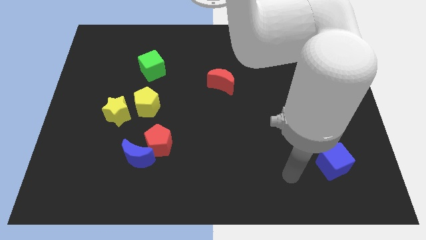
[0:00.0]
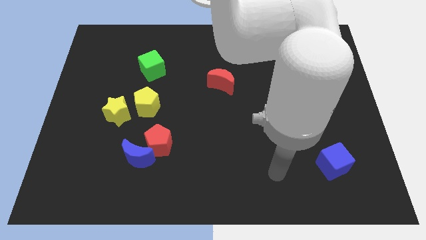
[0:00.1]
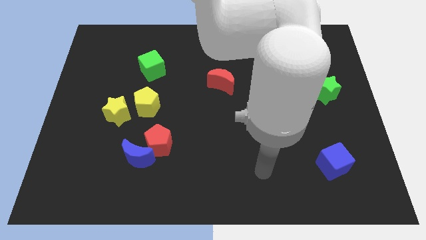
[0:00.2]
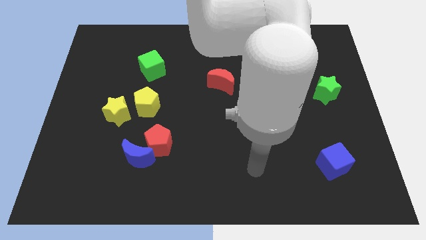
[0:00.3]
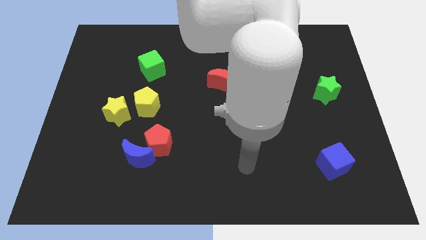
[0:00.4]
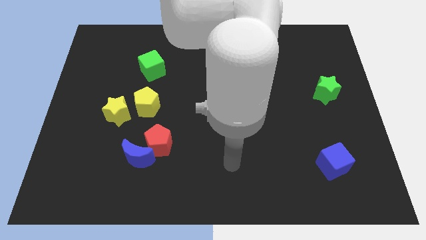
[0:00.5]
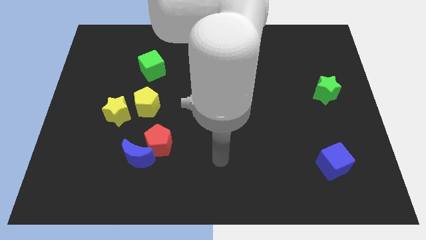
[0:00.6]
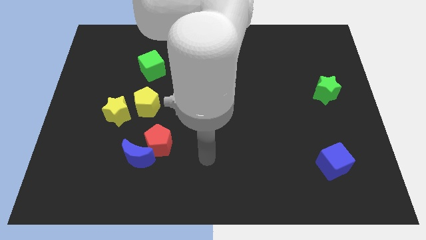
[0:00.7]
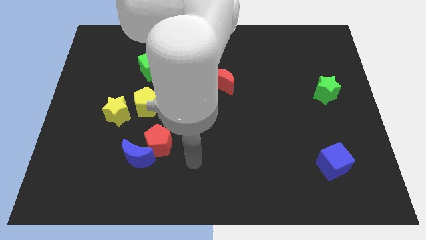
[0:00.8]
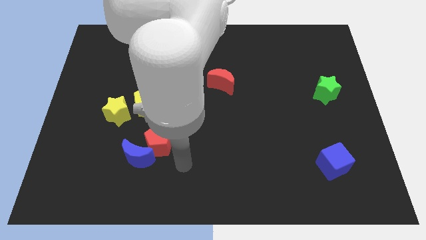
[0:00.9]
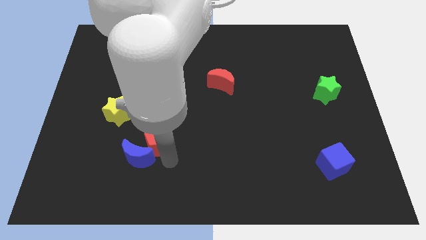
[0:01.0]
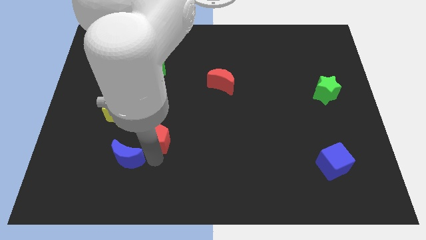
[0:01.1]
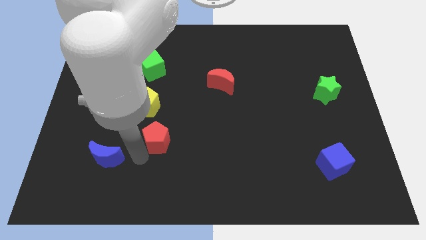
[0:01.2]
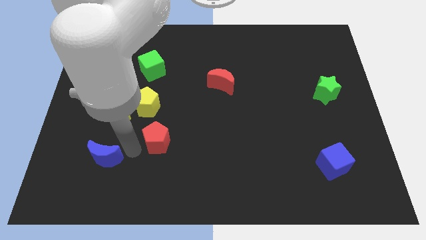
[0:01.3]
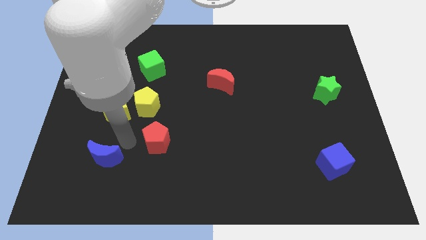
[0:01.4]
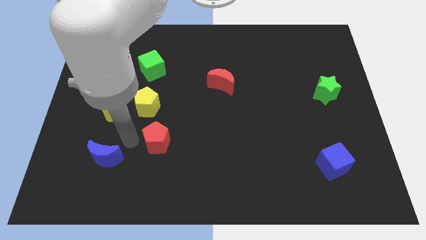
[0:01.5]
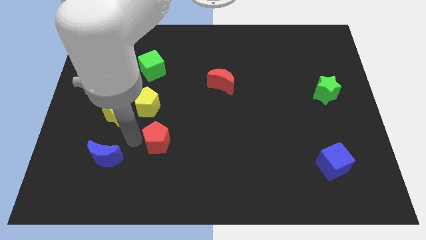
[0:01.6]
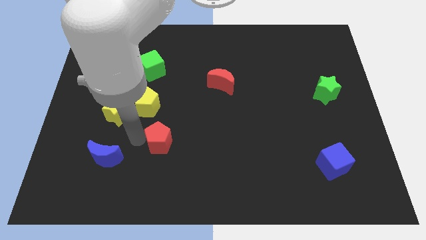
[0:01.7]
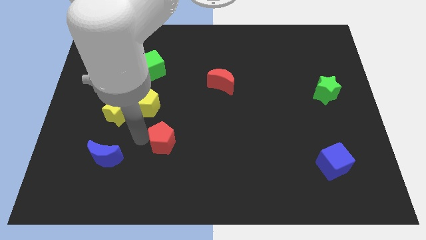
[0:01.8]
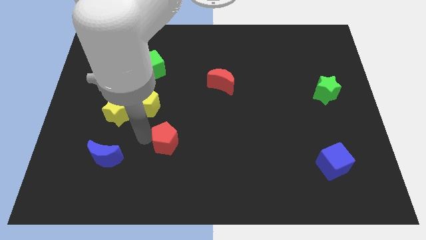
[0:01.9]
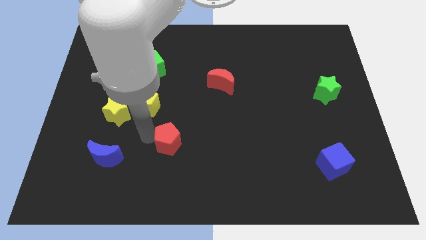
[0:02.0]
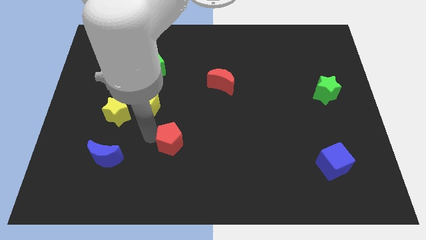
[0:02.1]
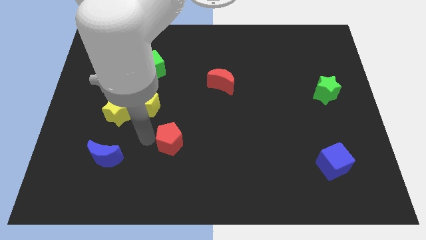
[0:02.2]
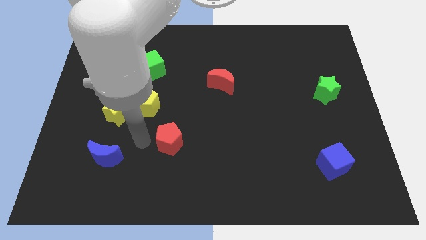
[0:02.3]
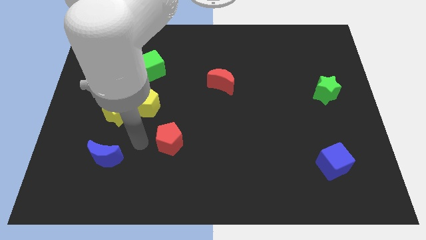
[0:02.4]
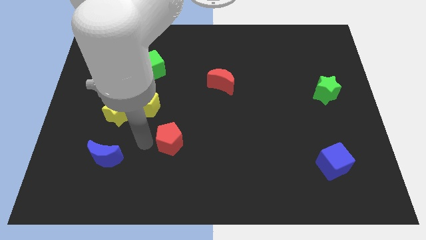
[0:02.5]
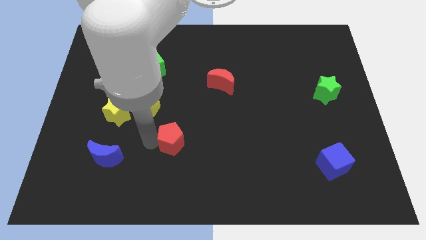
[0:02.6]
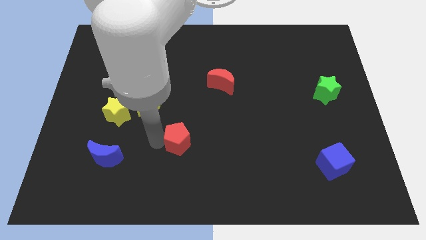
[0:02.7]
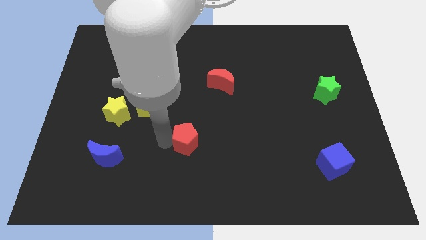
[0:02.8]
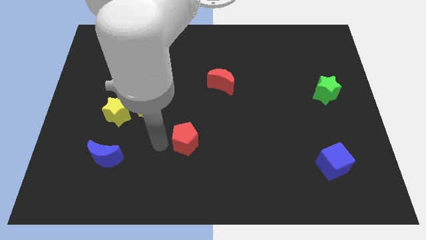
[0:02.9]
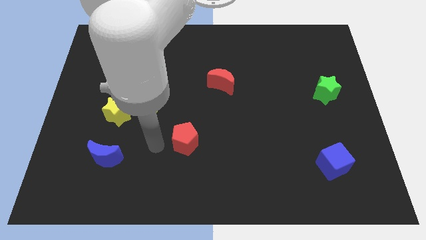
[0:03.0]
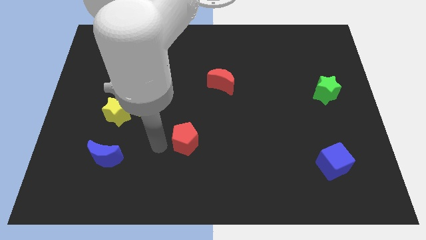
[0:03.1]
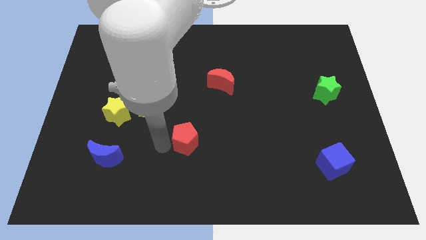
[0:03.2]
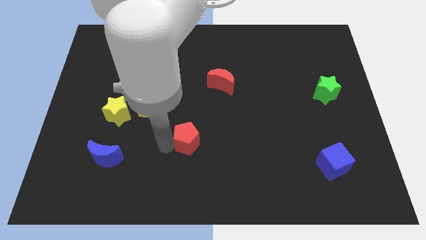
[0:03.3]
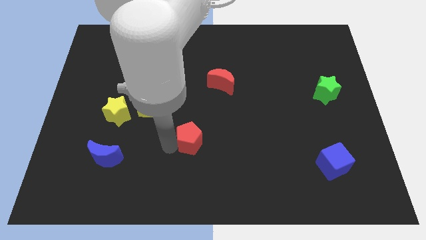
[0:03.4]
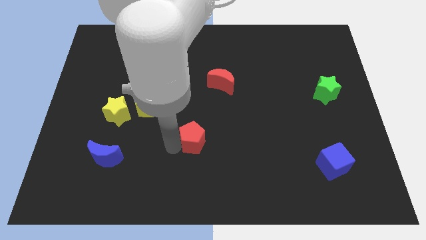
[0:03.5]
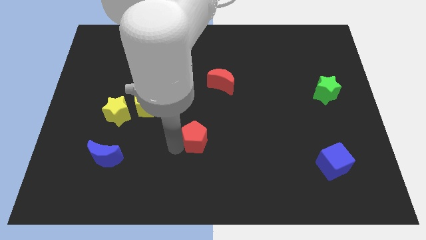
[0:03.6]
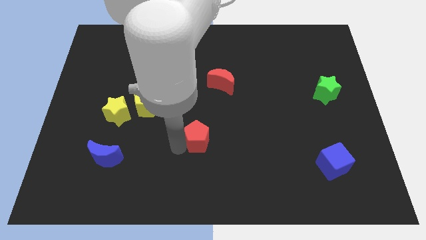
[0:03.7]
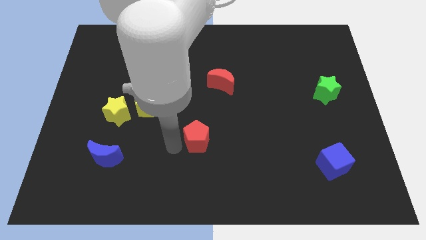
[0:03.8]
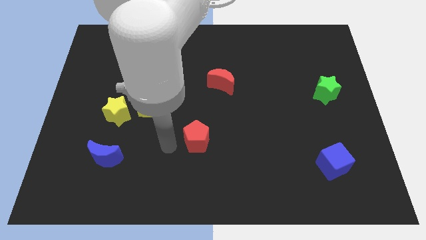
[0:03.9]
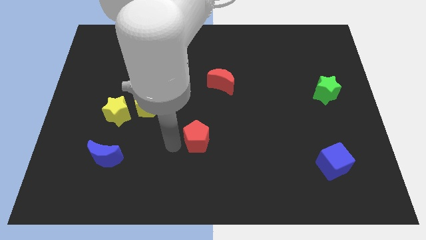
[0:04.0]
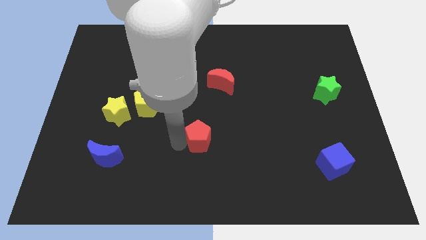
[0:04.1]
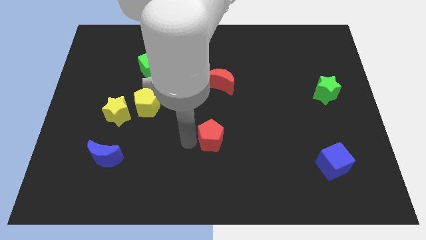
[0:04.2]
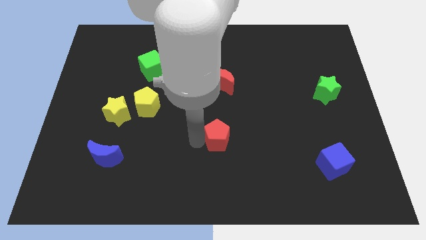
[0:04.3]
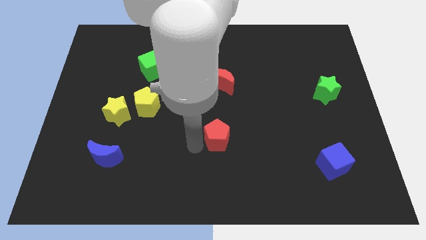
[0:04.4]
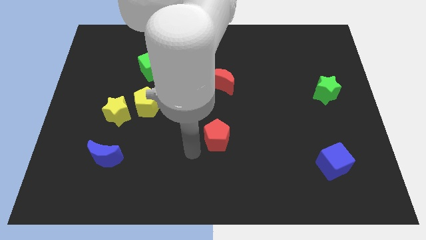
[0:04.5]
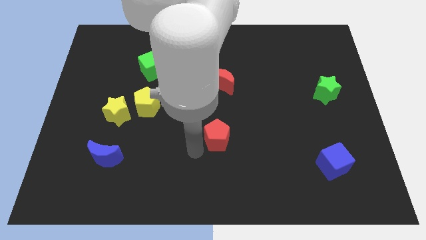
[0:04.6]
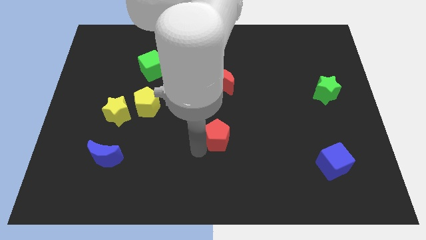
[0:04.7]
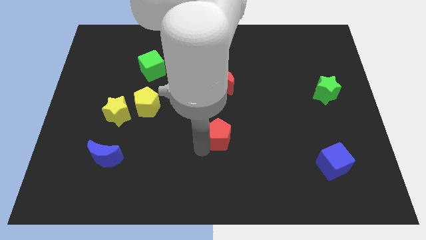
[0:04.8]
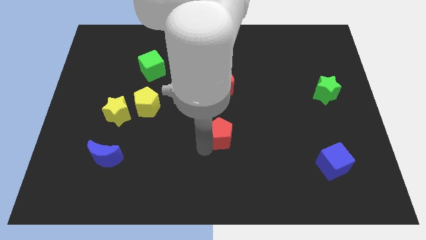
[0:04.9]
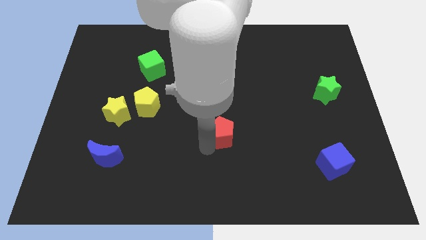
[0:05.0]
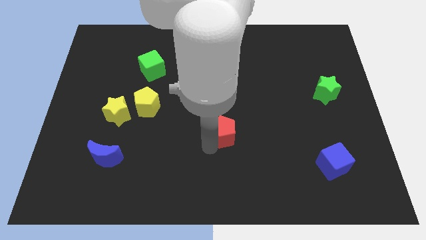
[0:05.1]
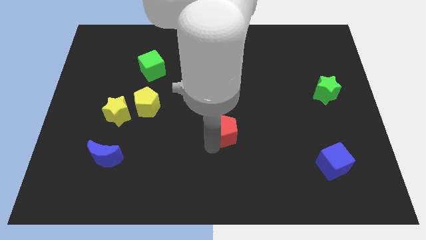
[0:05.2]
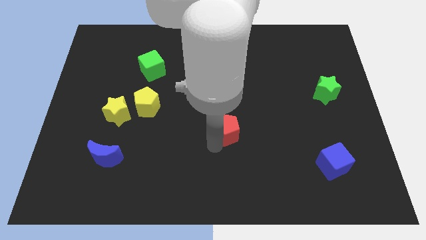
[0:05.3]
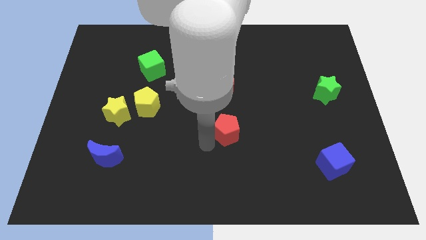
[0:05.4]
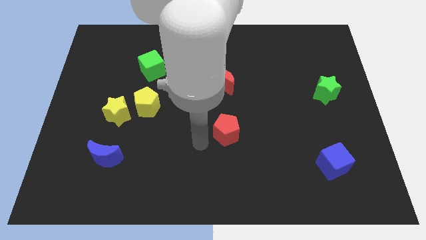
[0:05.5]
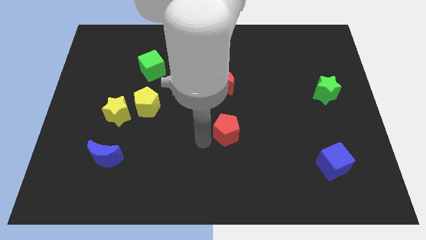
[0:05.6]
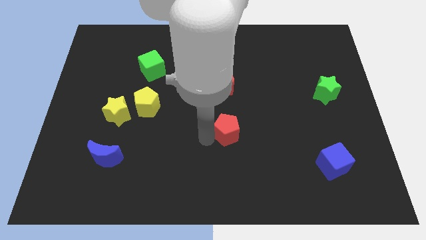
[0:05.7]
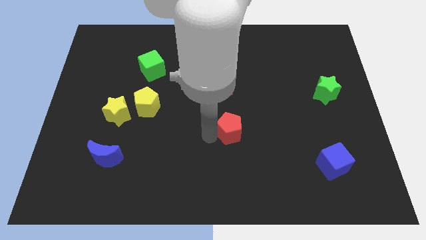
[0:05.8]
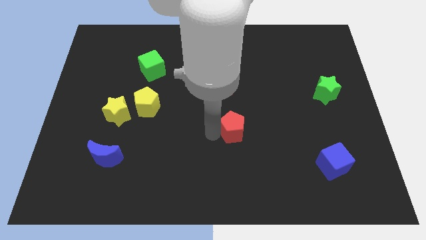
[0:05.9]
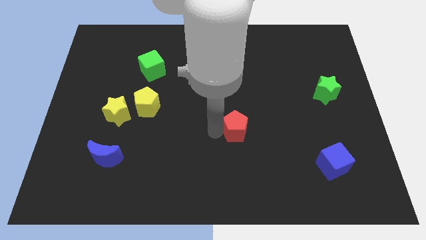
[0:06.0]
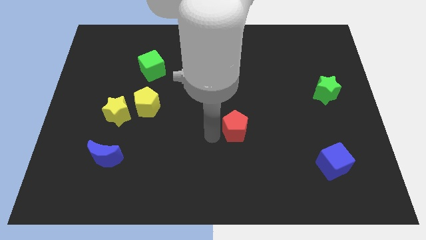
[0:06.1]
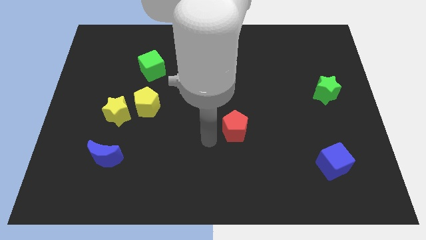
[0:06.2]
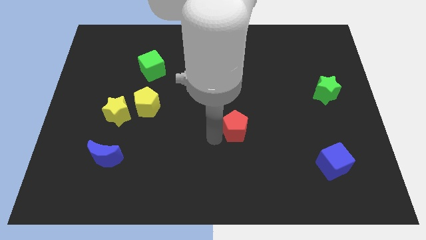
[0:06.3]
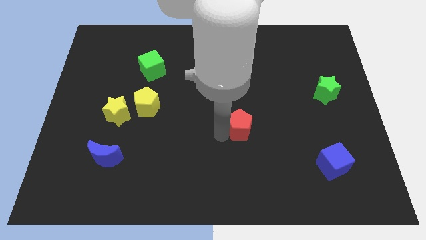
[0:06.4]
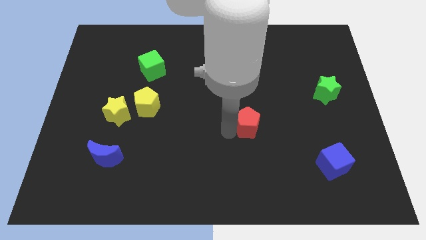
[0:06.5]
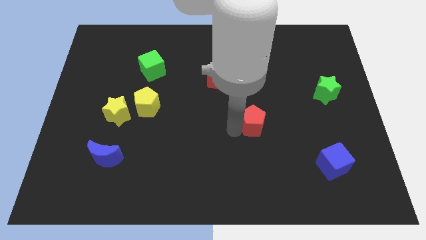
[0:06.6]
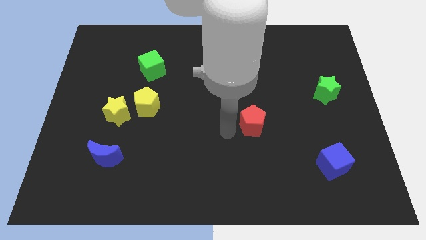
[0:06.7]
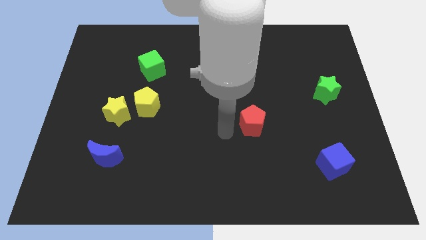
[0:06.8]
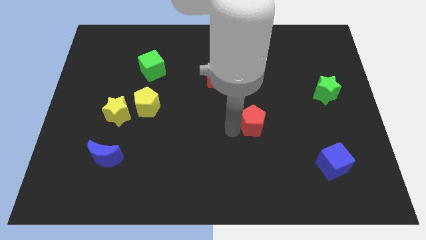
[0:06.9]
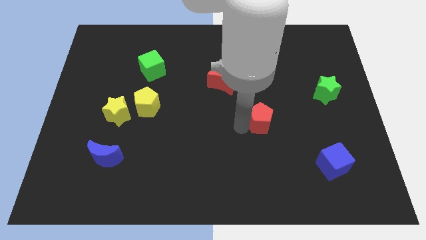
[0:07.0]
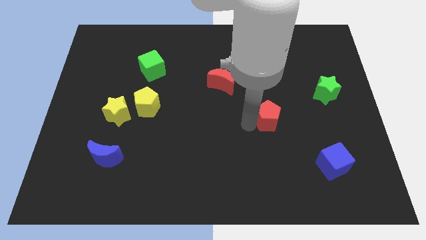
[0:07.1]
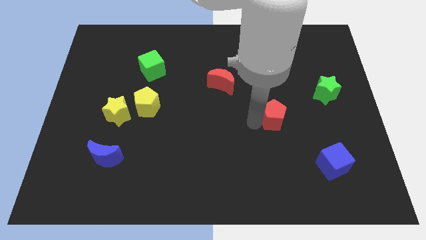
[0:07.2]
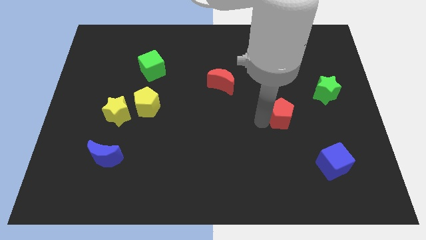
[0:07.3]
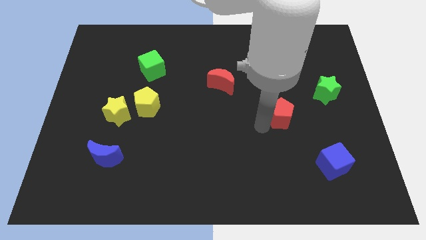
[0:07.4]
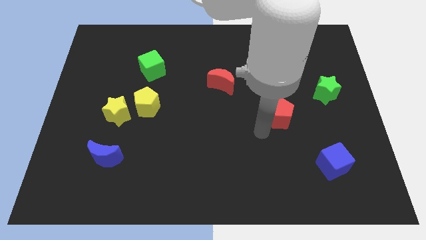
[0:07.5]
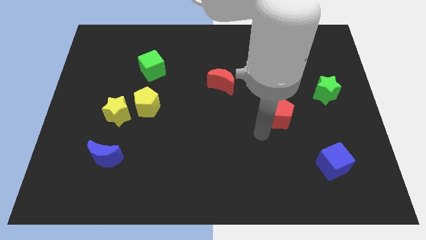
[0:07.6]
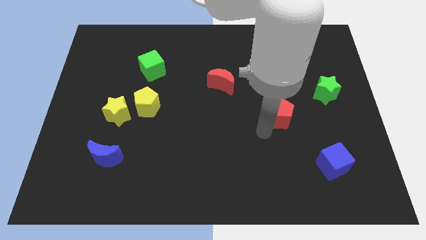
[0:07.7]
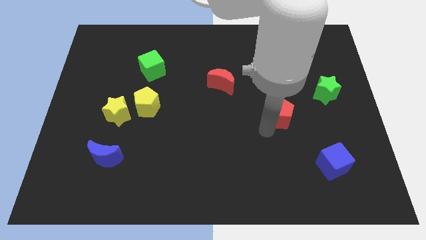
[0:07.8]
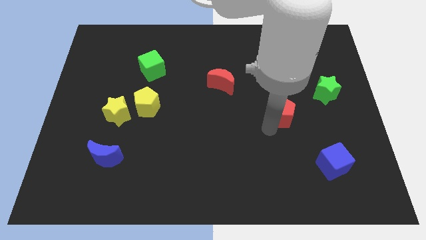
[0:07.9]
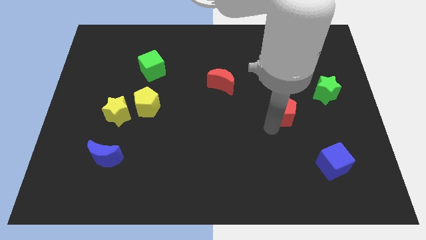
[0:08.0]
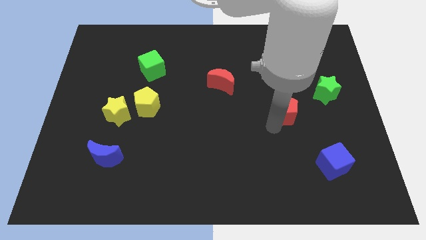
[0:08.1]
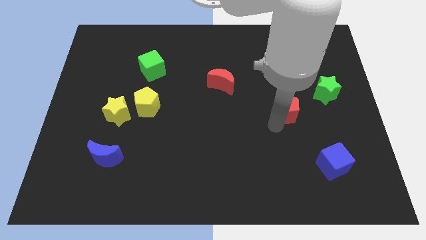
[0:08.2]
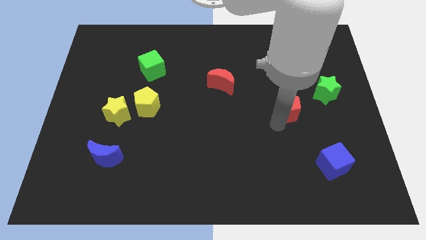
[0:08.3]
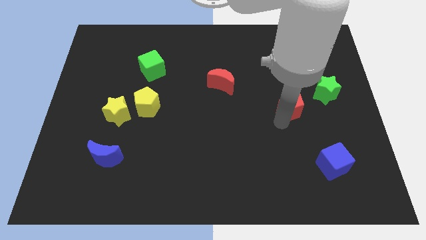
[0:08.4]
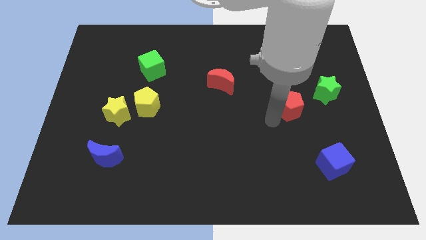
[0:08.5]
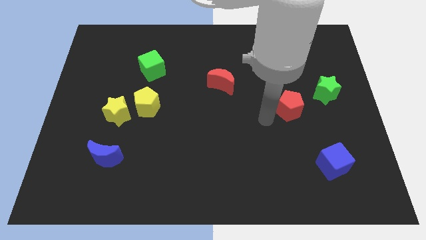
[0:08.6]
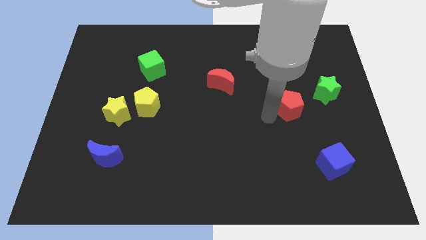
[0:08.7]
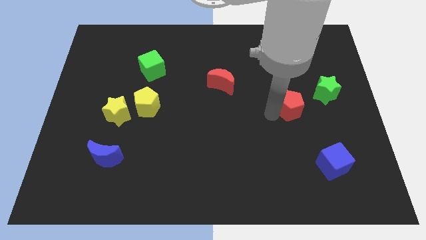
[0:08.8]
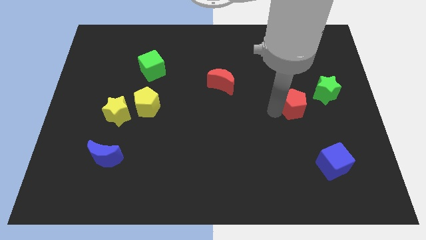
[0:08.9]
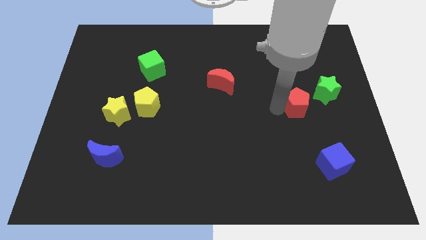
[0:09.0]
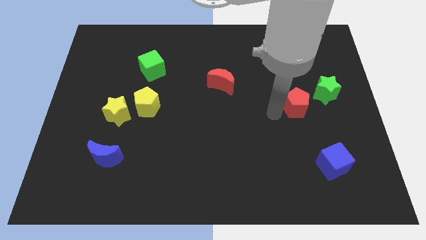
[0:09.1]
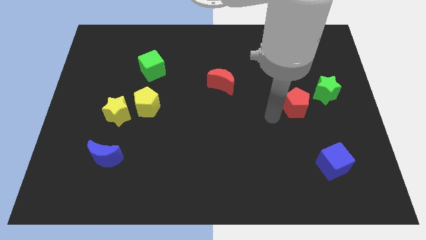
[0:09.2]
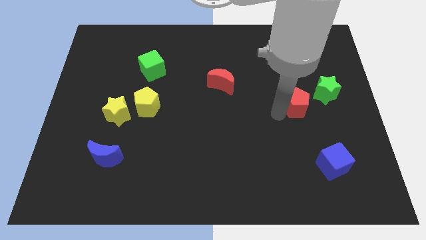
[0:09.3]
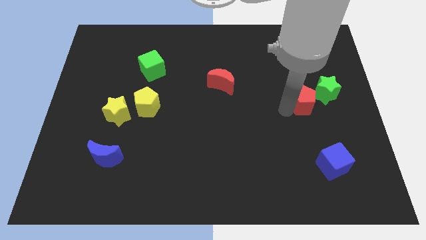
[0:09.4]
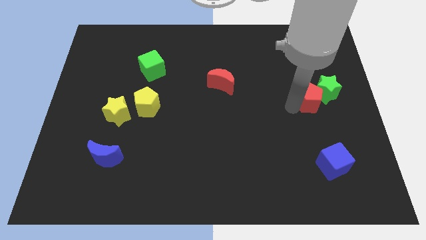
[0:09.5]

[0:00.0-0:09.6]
push the red pentagon towards the green star
